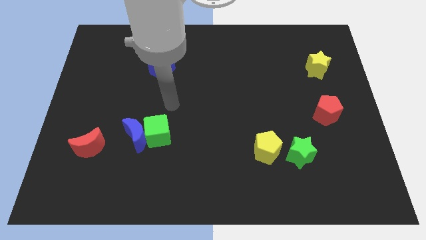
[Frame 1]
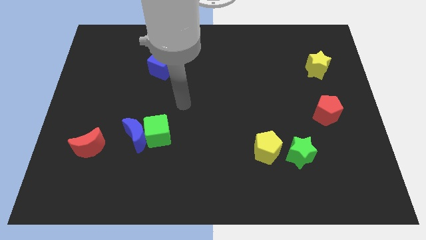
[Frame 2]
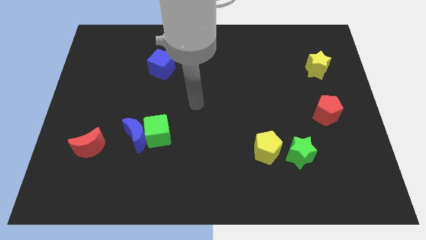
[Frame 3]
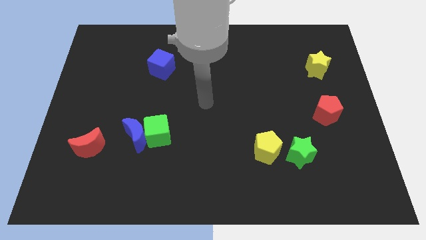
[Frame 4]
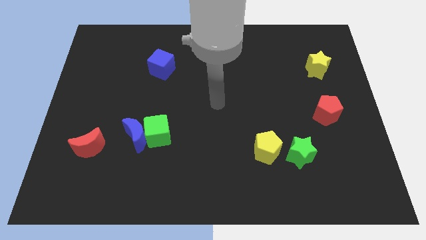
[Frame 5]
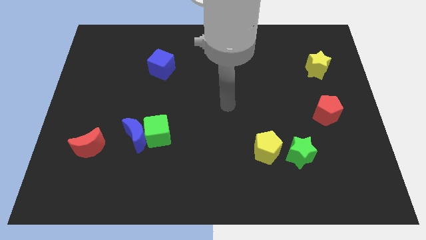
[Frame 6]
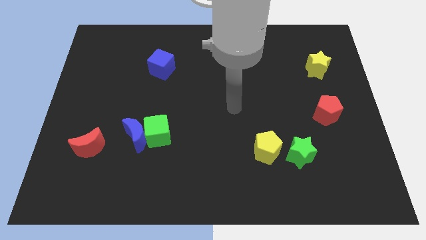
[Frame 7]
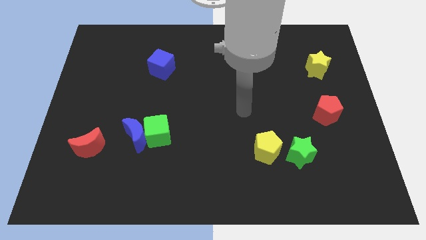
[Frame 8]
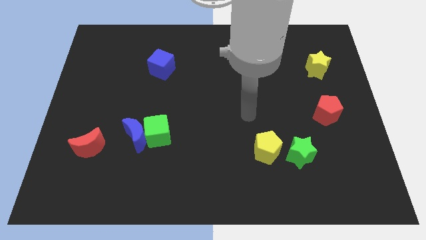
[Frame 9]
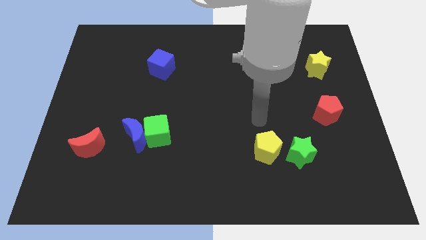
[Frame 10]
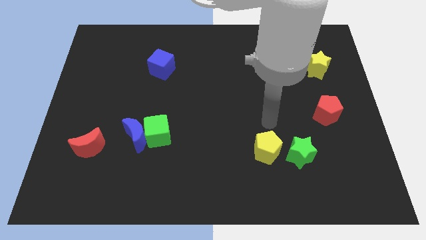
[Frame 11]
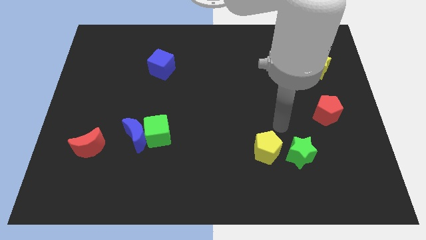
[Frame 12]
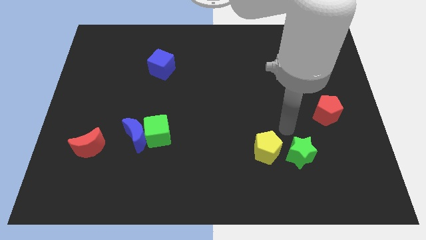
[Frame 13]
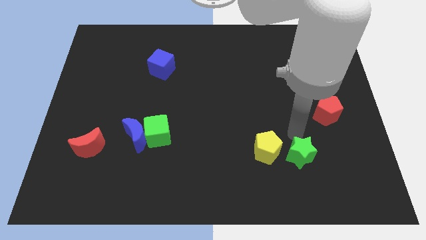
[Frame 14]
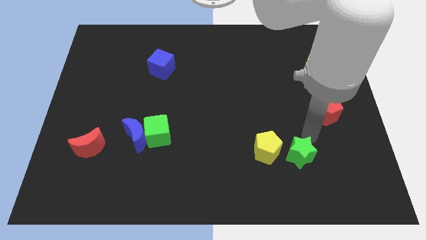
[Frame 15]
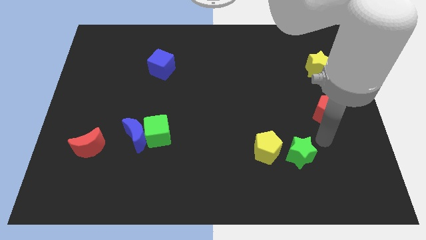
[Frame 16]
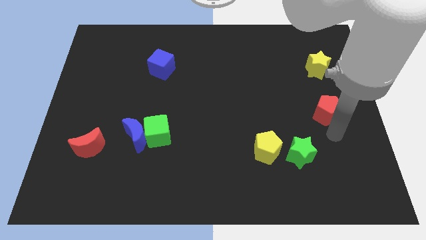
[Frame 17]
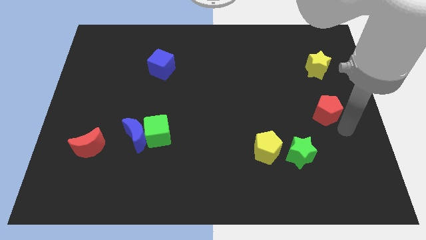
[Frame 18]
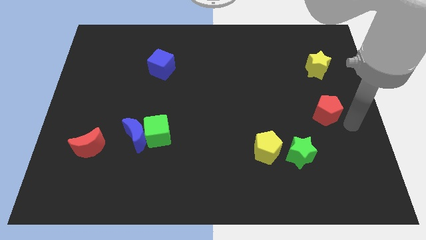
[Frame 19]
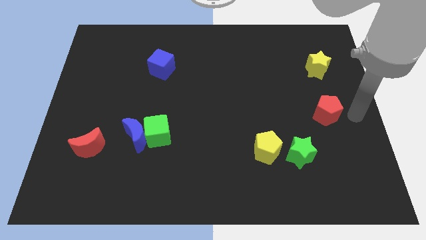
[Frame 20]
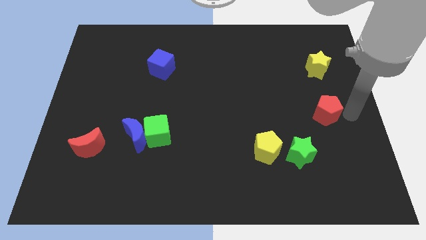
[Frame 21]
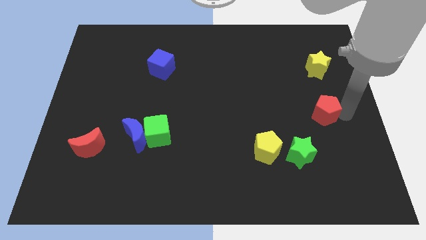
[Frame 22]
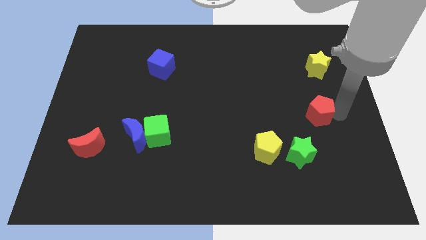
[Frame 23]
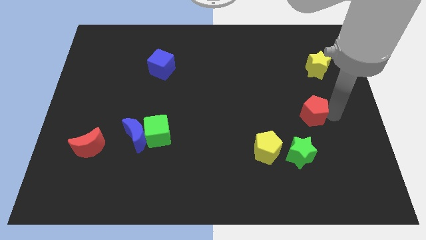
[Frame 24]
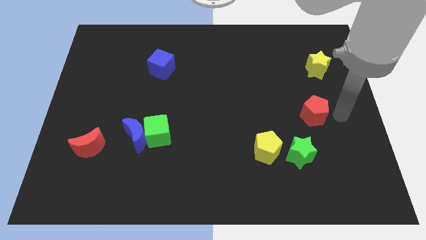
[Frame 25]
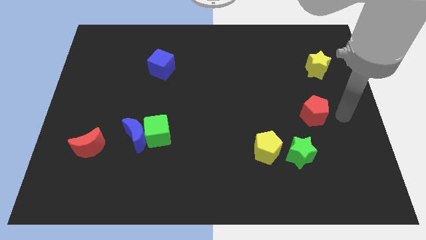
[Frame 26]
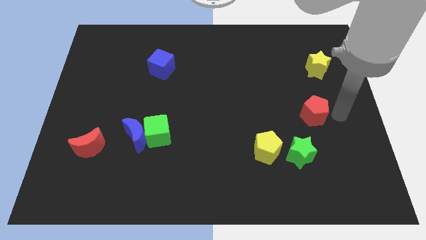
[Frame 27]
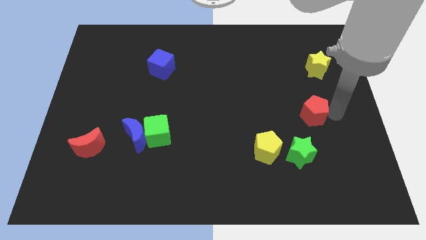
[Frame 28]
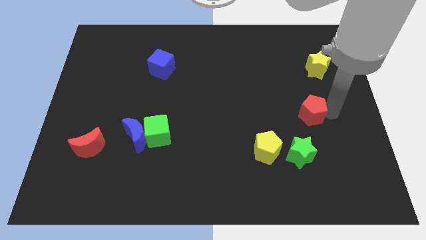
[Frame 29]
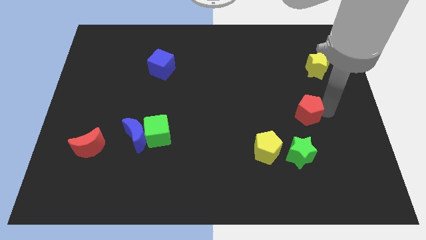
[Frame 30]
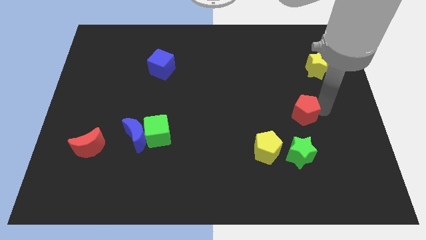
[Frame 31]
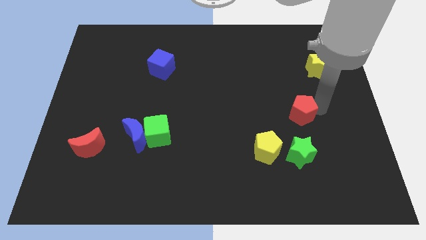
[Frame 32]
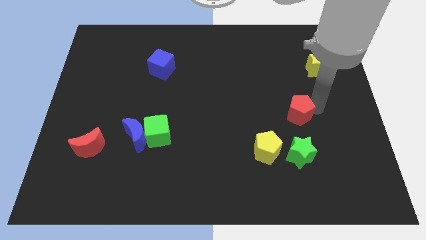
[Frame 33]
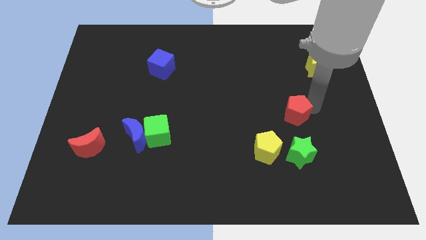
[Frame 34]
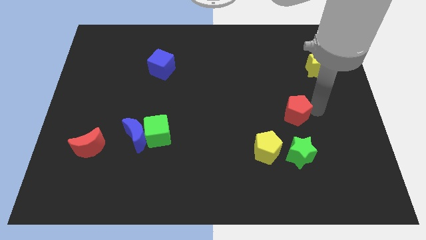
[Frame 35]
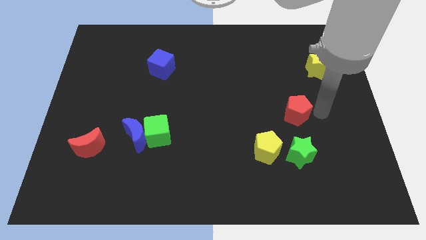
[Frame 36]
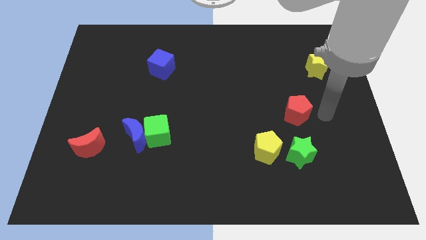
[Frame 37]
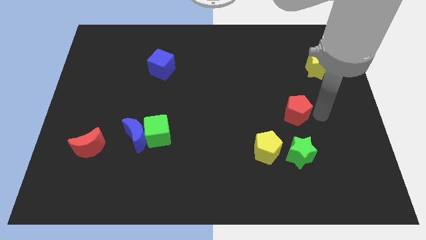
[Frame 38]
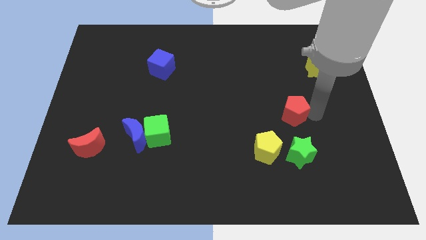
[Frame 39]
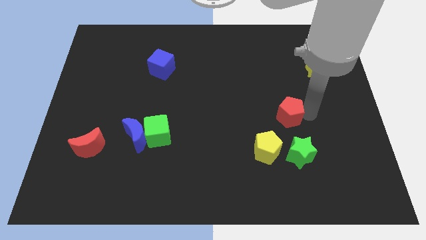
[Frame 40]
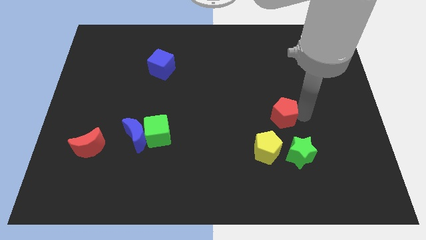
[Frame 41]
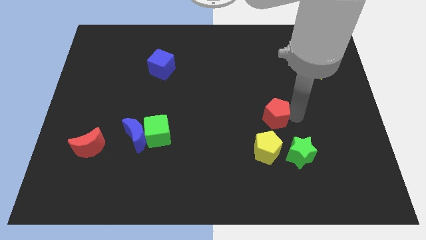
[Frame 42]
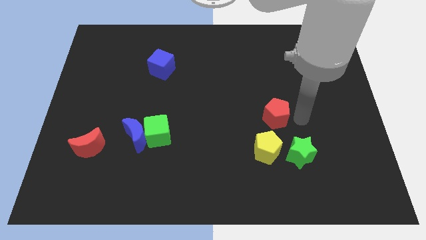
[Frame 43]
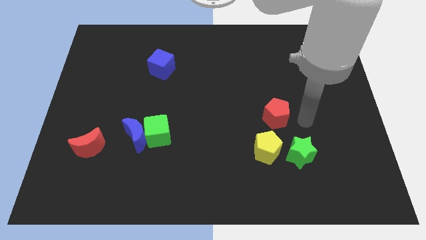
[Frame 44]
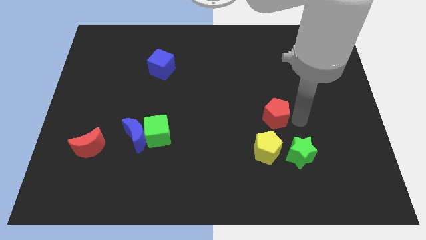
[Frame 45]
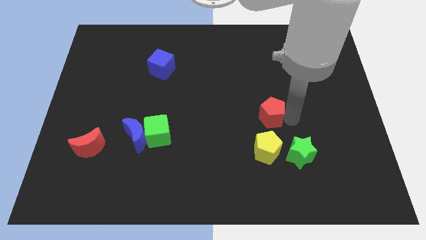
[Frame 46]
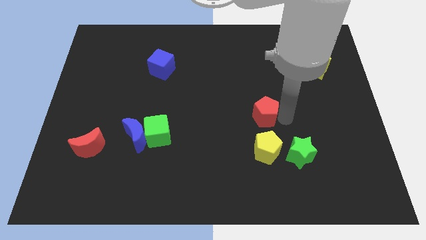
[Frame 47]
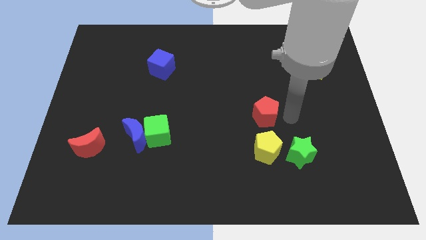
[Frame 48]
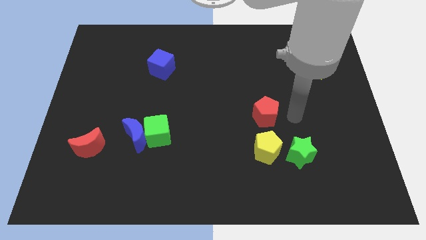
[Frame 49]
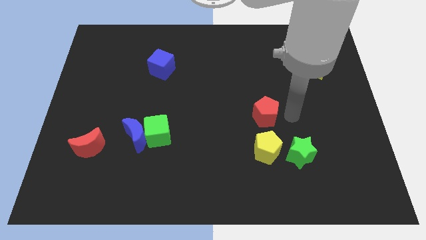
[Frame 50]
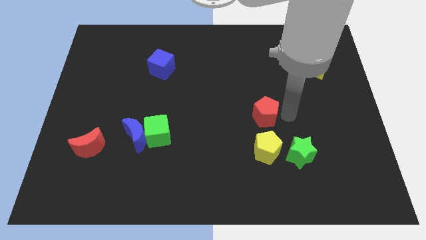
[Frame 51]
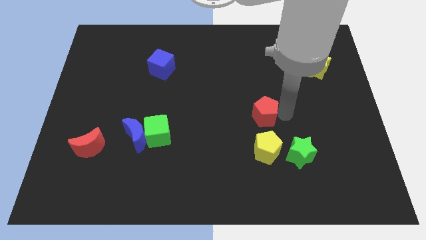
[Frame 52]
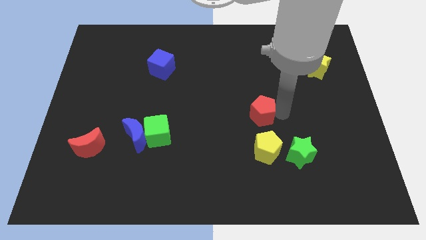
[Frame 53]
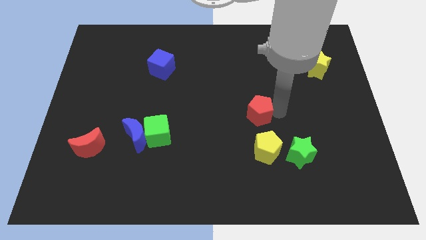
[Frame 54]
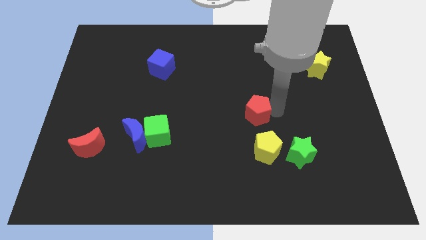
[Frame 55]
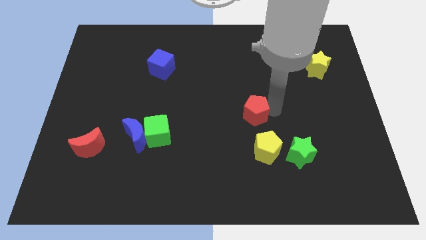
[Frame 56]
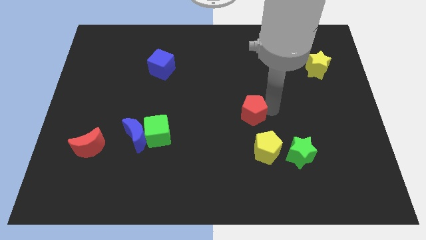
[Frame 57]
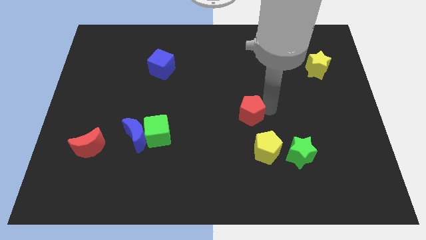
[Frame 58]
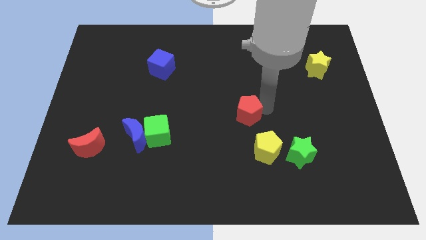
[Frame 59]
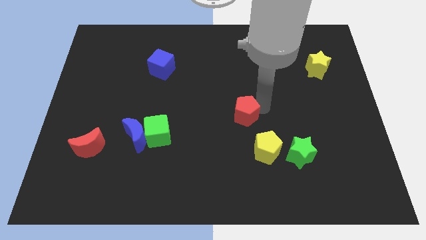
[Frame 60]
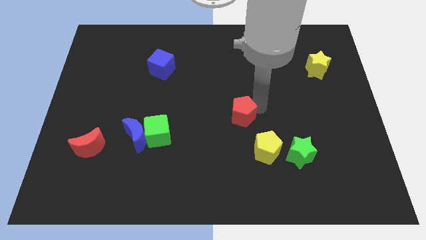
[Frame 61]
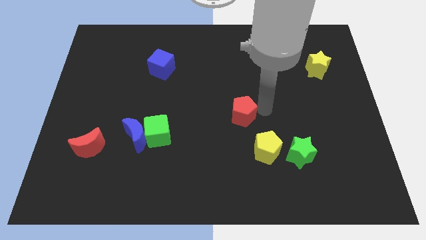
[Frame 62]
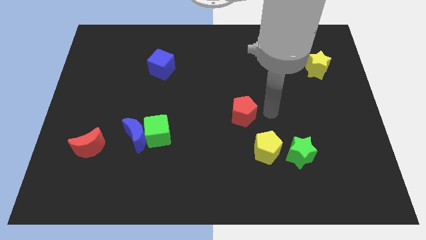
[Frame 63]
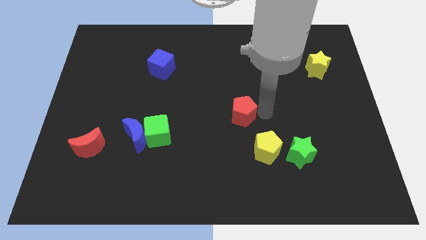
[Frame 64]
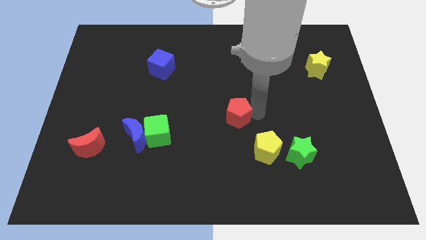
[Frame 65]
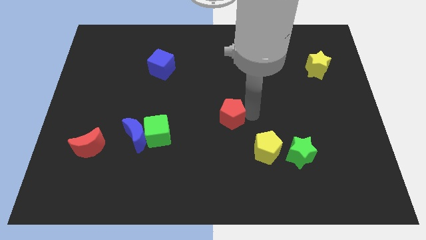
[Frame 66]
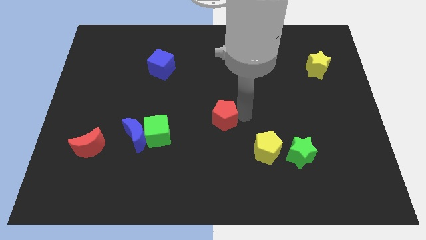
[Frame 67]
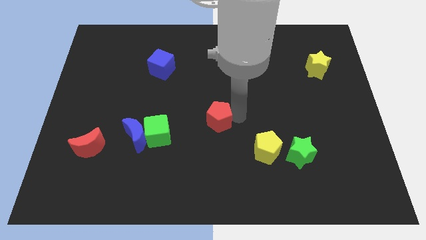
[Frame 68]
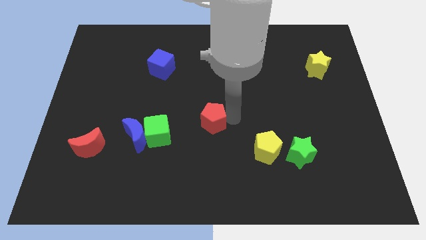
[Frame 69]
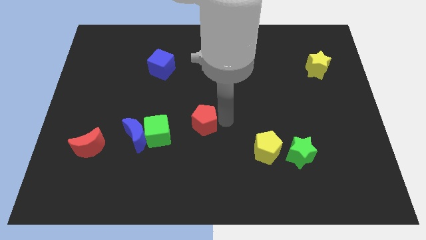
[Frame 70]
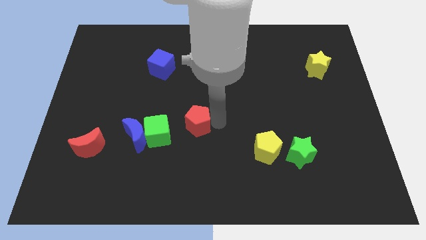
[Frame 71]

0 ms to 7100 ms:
push the red pentagon diagonally up and to the right of the green cube
